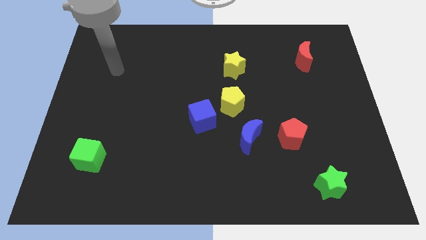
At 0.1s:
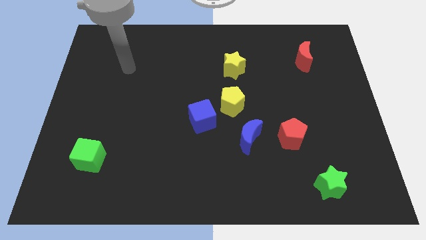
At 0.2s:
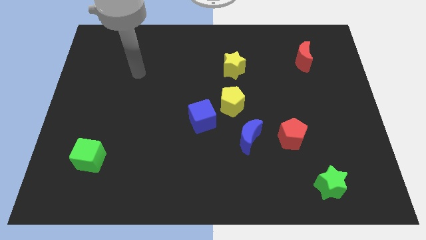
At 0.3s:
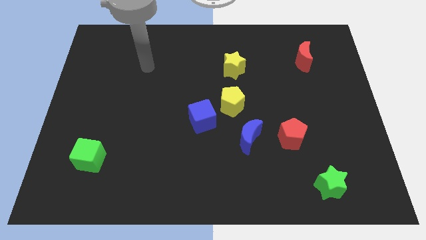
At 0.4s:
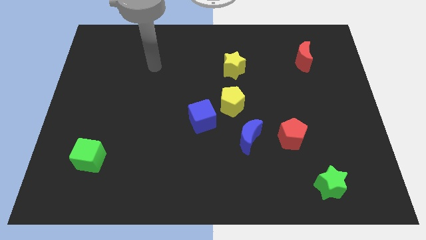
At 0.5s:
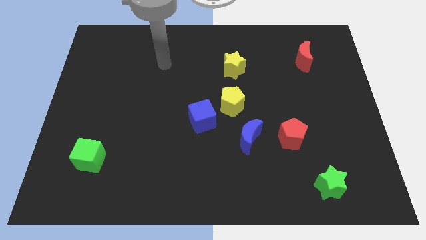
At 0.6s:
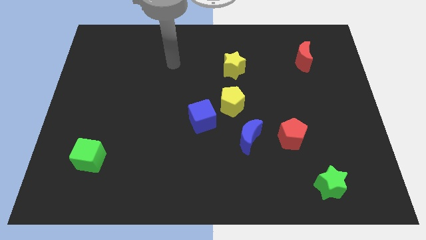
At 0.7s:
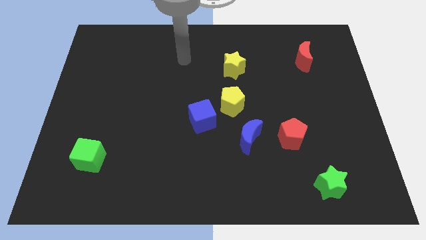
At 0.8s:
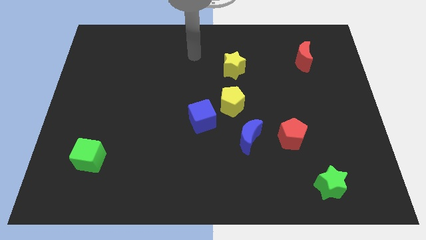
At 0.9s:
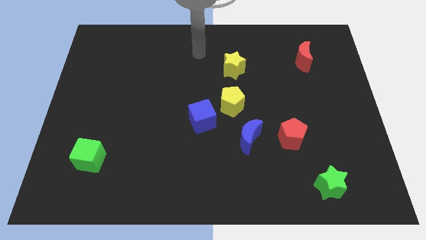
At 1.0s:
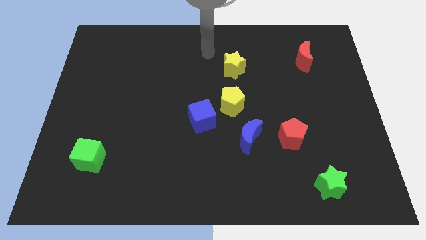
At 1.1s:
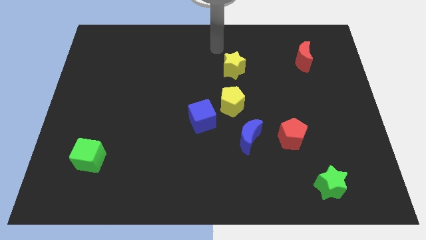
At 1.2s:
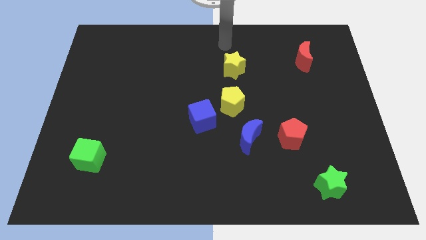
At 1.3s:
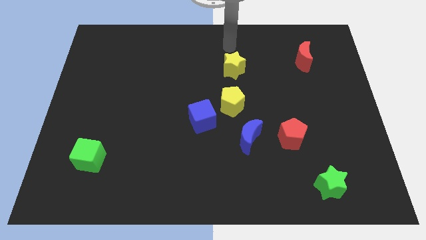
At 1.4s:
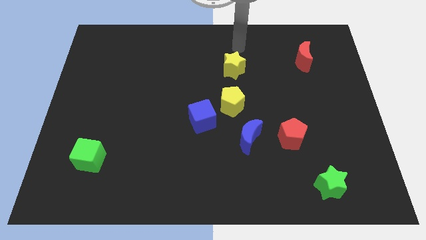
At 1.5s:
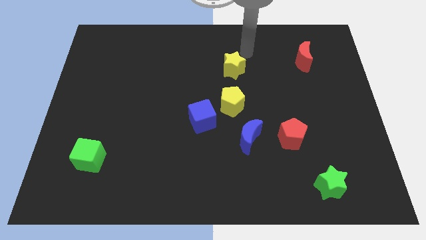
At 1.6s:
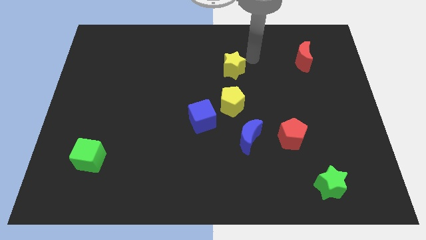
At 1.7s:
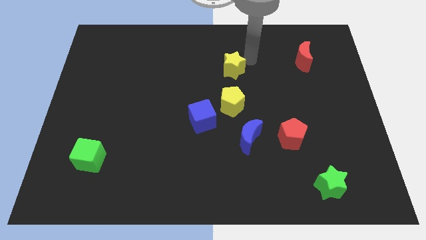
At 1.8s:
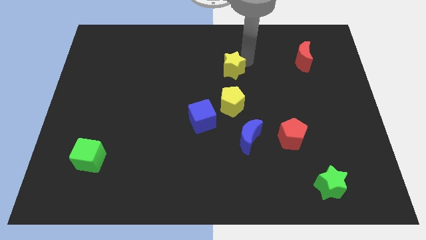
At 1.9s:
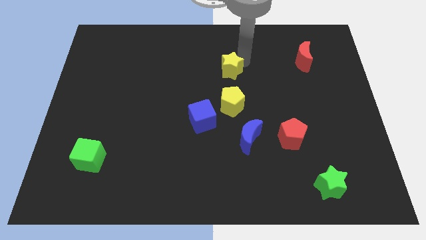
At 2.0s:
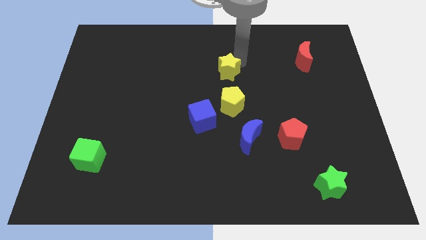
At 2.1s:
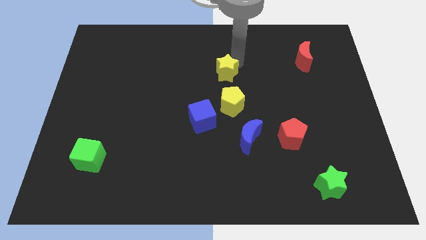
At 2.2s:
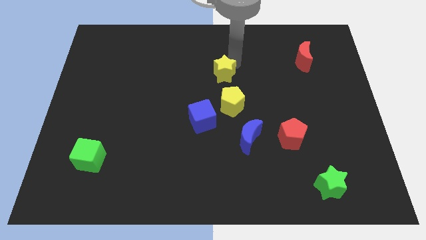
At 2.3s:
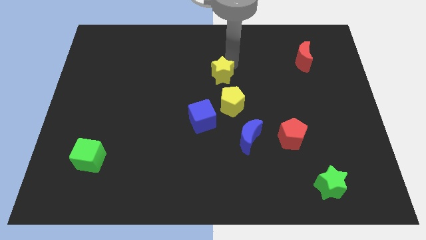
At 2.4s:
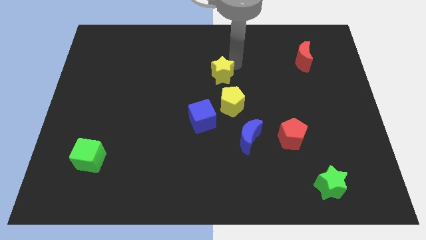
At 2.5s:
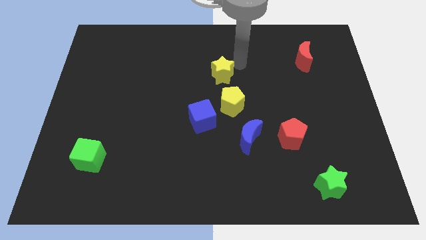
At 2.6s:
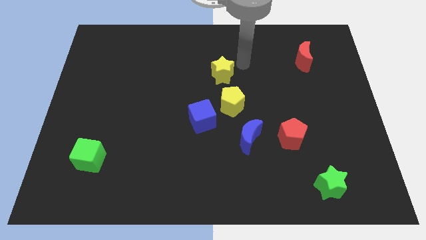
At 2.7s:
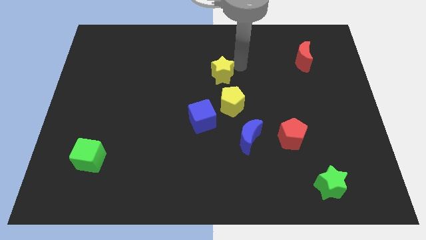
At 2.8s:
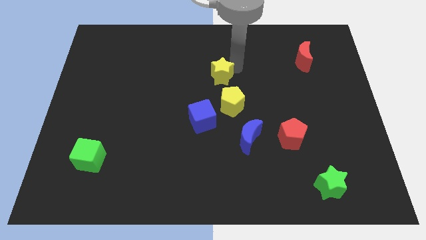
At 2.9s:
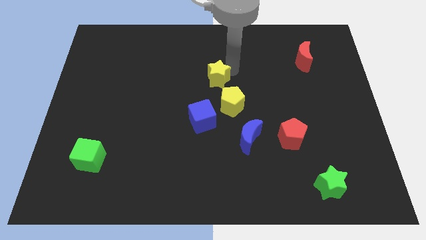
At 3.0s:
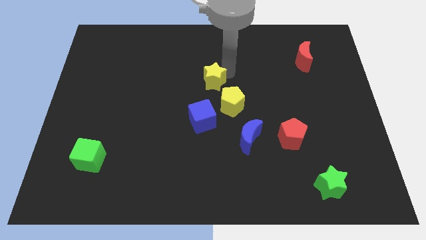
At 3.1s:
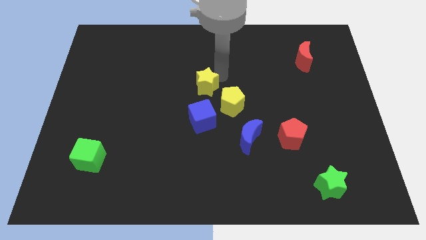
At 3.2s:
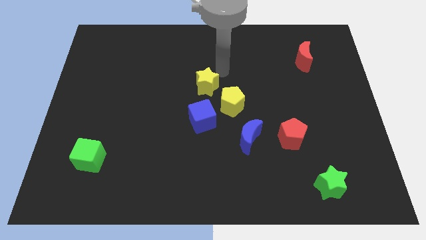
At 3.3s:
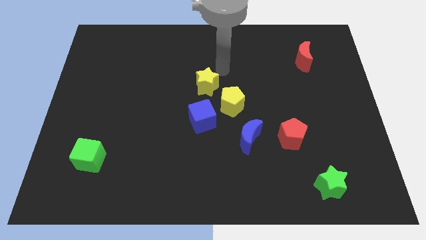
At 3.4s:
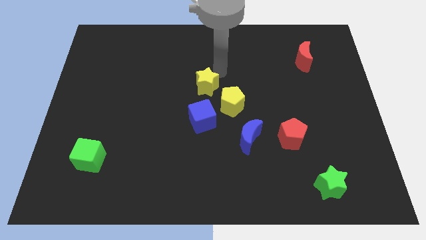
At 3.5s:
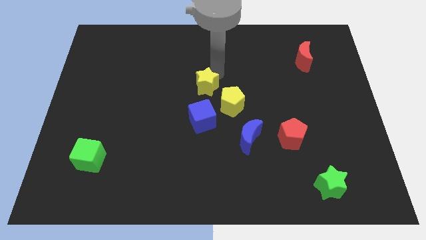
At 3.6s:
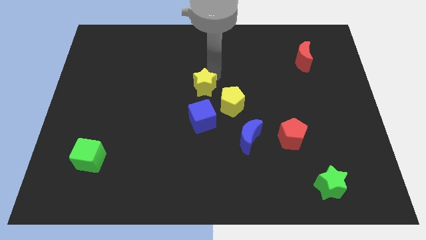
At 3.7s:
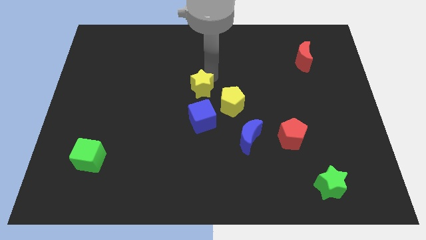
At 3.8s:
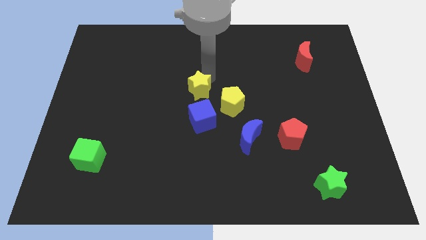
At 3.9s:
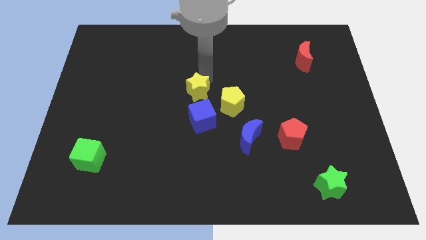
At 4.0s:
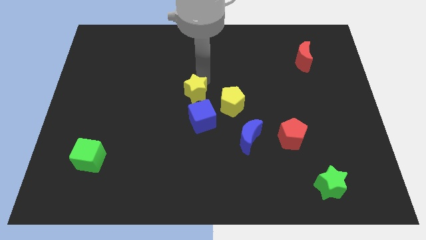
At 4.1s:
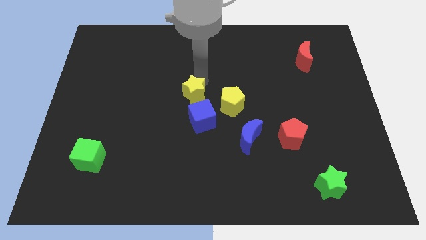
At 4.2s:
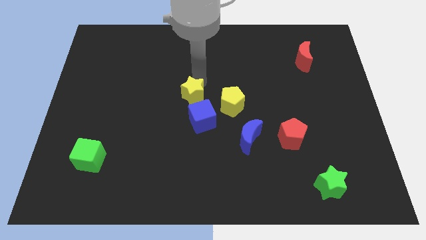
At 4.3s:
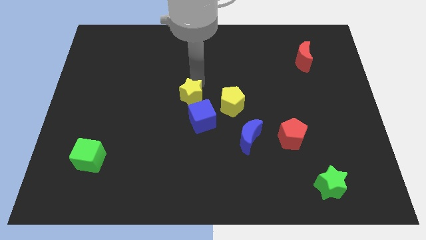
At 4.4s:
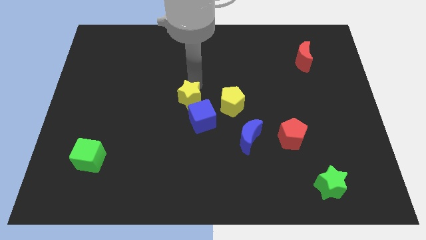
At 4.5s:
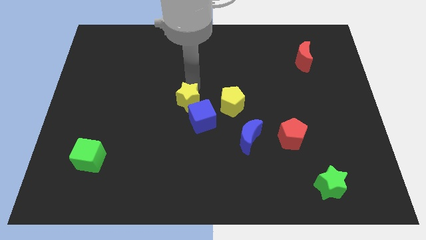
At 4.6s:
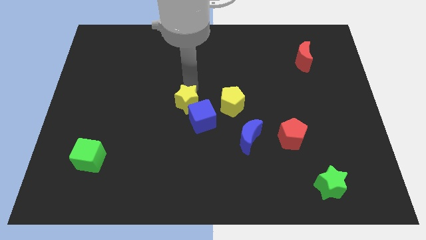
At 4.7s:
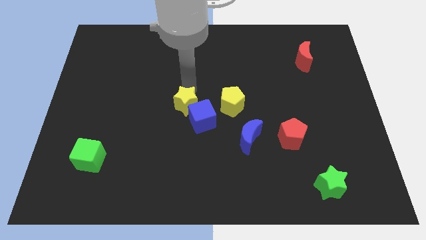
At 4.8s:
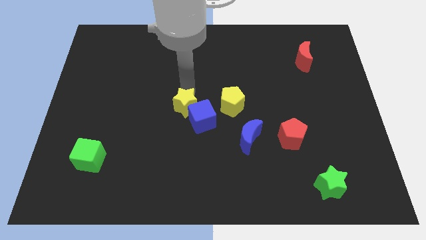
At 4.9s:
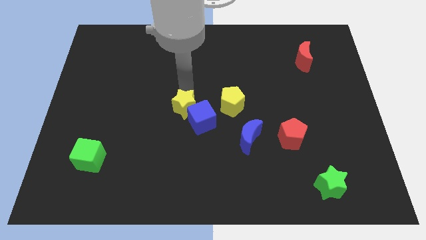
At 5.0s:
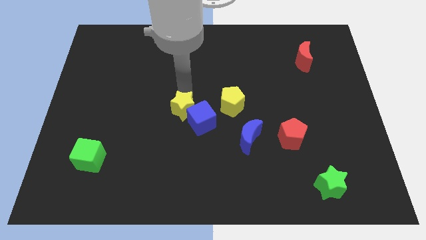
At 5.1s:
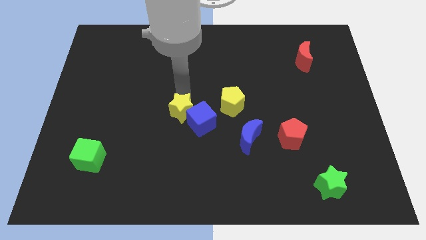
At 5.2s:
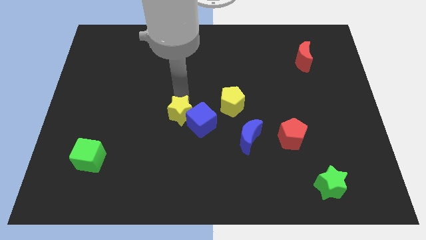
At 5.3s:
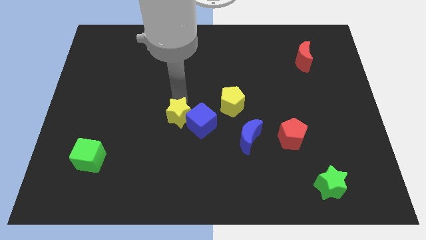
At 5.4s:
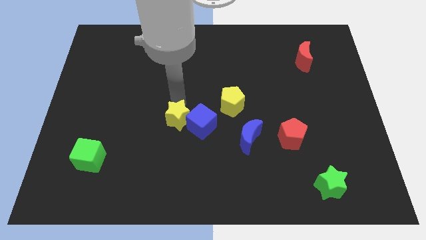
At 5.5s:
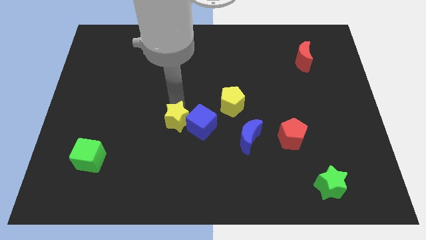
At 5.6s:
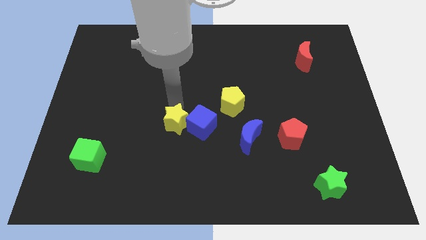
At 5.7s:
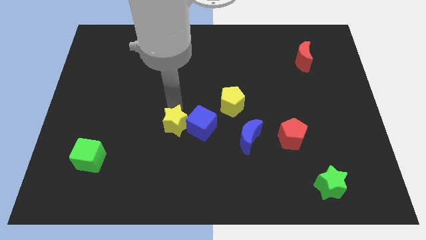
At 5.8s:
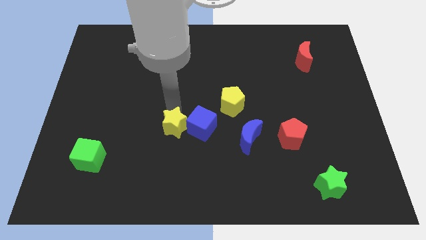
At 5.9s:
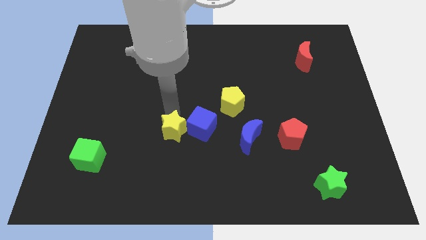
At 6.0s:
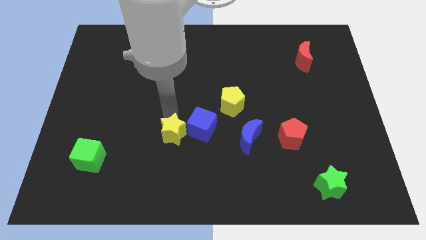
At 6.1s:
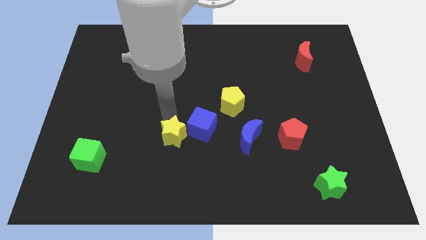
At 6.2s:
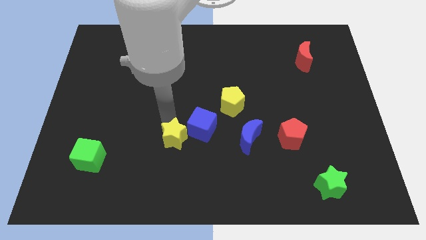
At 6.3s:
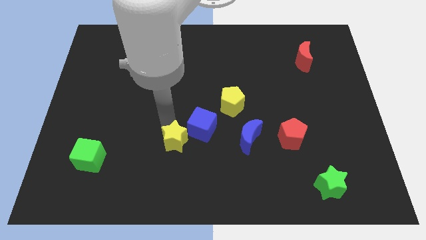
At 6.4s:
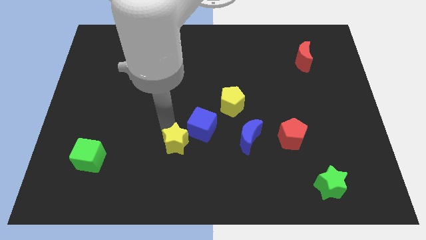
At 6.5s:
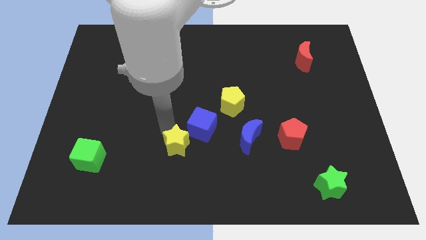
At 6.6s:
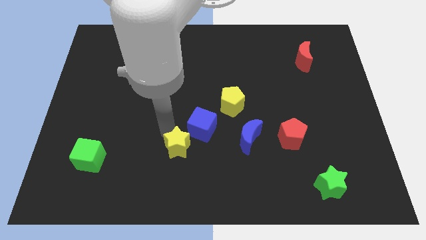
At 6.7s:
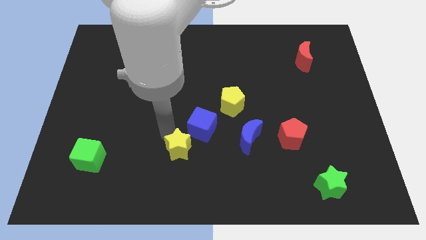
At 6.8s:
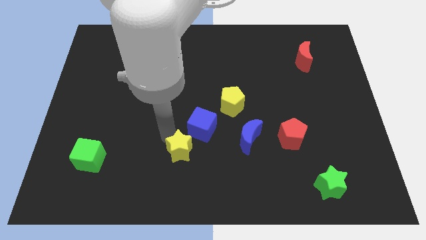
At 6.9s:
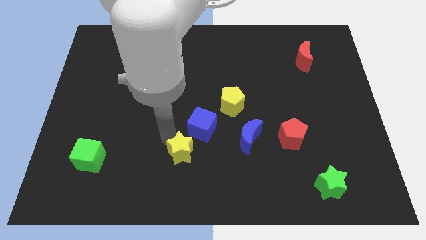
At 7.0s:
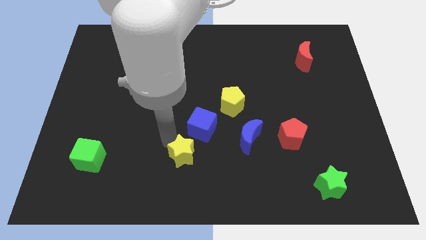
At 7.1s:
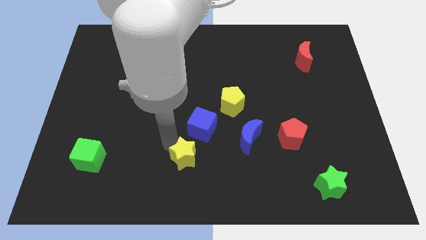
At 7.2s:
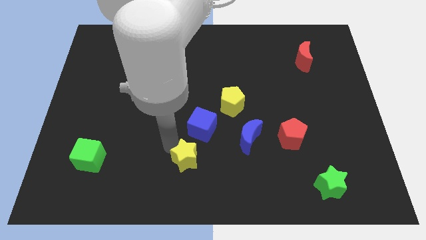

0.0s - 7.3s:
slide the yellow star to the bottom
